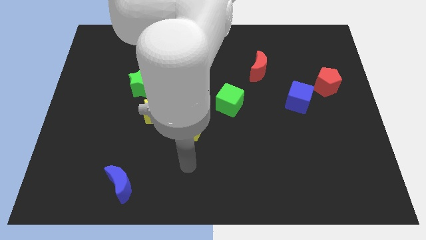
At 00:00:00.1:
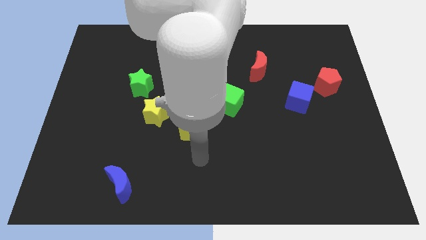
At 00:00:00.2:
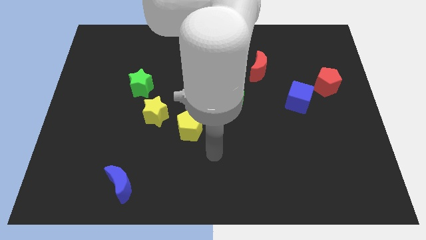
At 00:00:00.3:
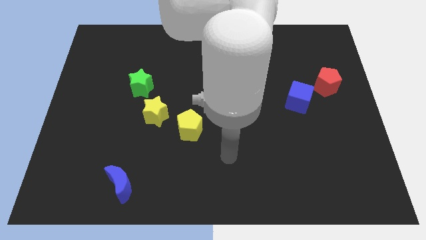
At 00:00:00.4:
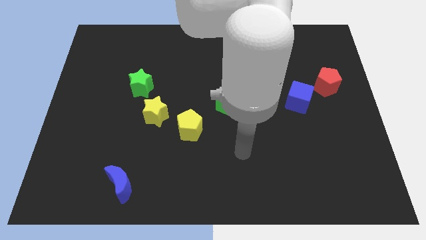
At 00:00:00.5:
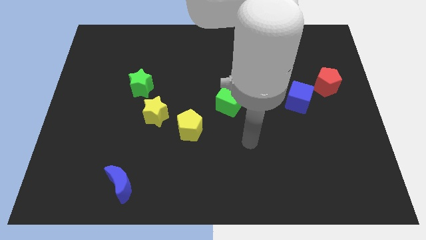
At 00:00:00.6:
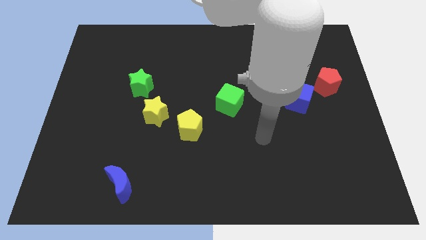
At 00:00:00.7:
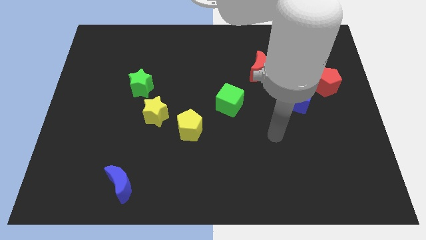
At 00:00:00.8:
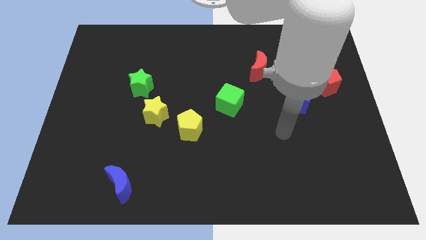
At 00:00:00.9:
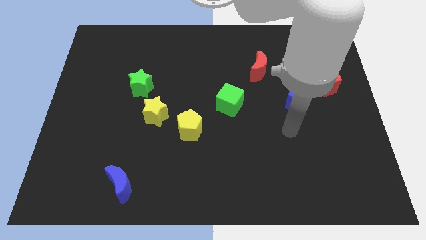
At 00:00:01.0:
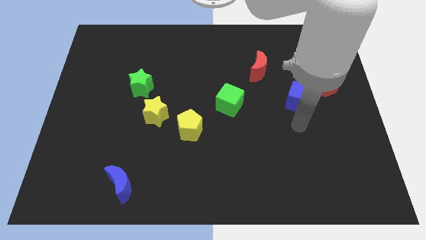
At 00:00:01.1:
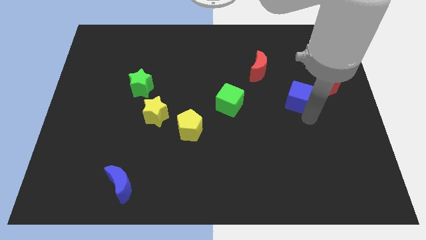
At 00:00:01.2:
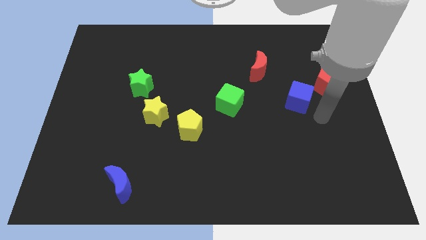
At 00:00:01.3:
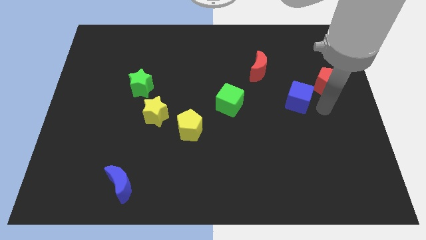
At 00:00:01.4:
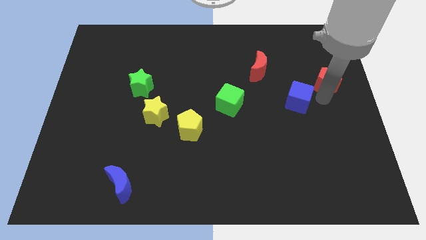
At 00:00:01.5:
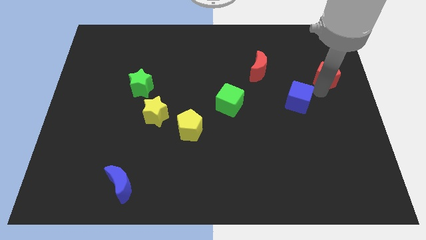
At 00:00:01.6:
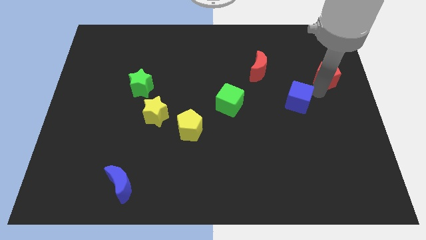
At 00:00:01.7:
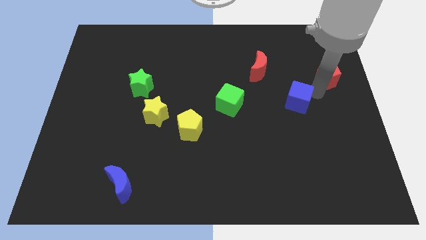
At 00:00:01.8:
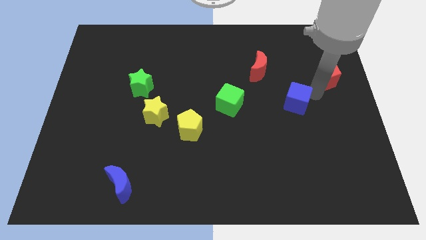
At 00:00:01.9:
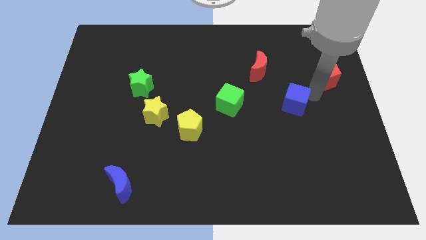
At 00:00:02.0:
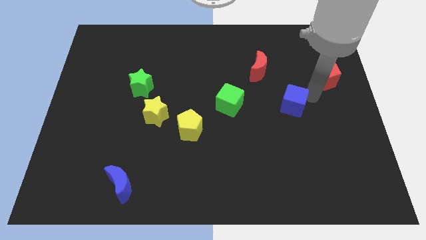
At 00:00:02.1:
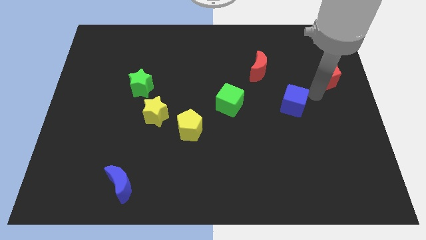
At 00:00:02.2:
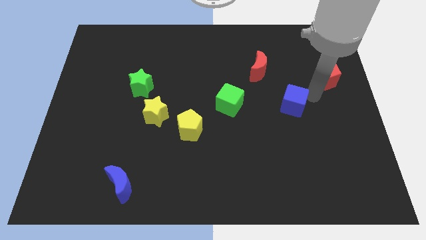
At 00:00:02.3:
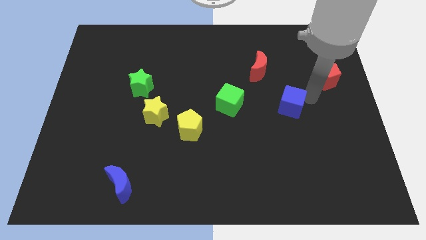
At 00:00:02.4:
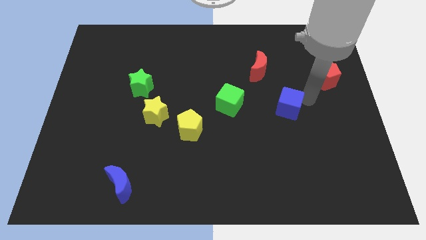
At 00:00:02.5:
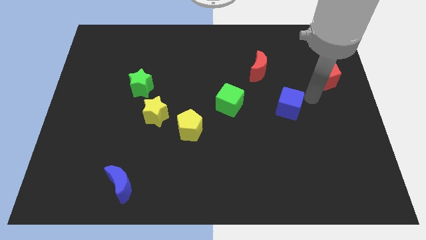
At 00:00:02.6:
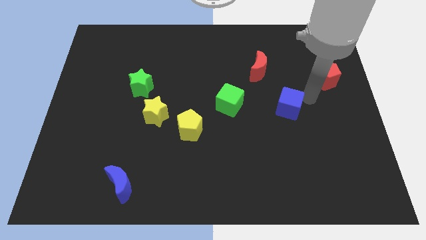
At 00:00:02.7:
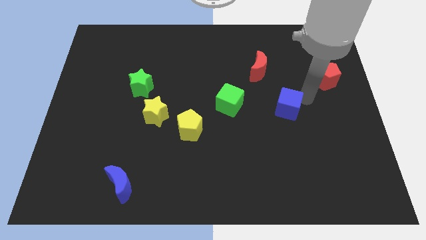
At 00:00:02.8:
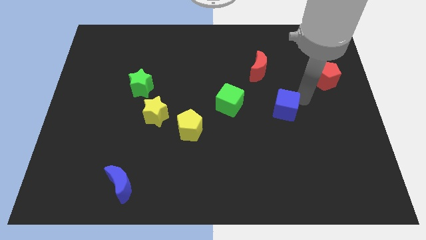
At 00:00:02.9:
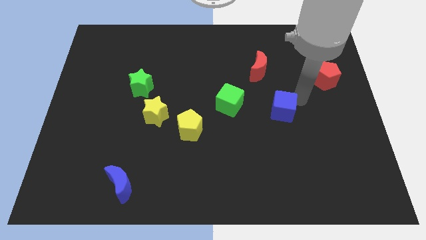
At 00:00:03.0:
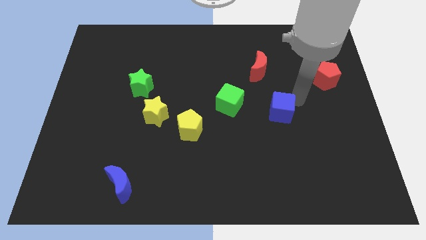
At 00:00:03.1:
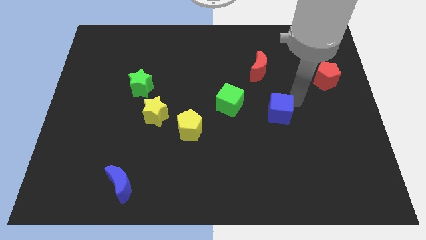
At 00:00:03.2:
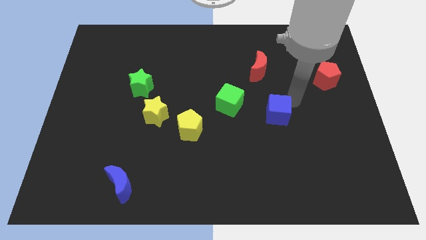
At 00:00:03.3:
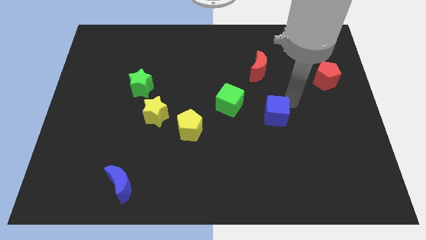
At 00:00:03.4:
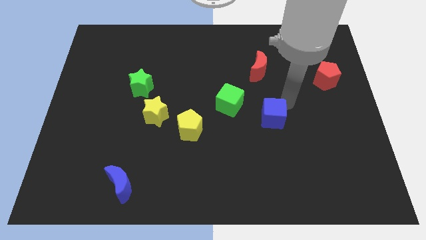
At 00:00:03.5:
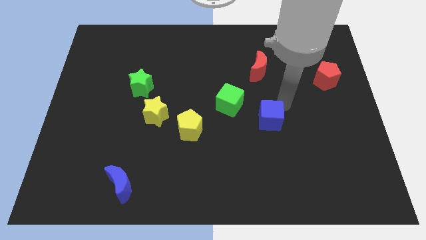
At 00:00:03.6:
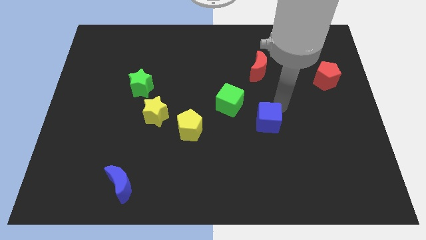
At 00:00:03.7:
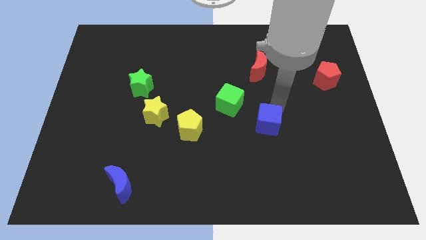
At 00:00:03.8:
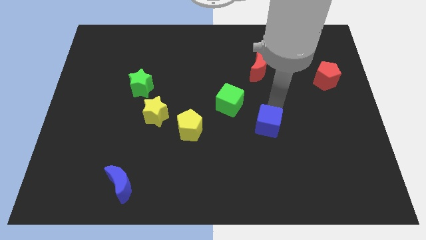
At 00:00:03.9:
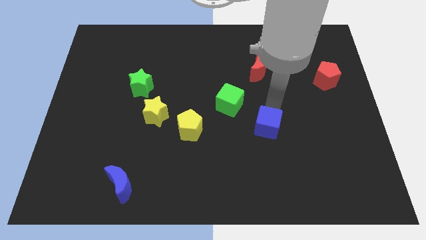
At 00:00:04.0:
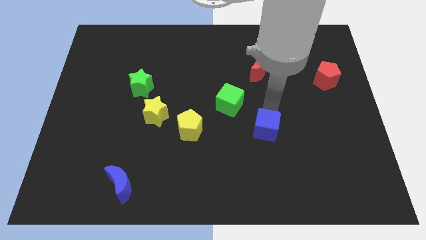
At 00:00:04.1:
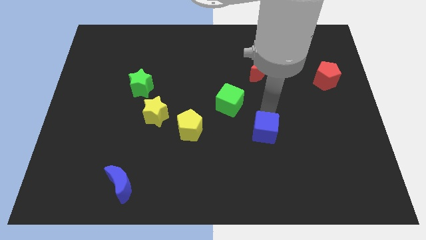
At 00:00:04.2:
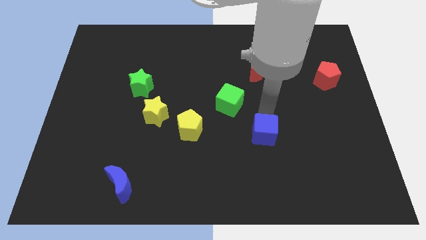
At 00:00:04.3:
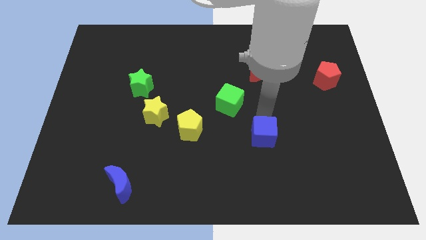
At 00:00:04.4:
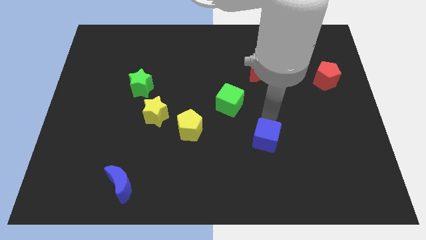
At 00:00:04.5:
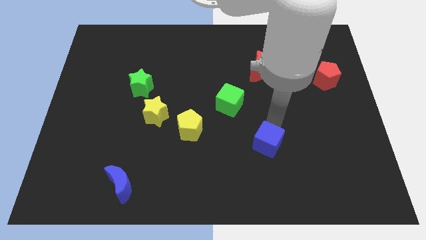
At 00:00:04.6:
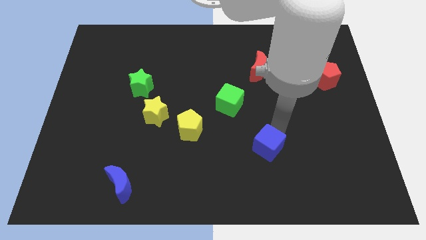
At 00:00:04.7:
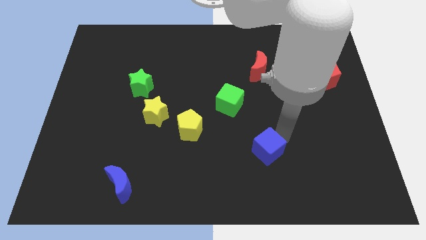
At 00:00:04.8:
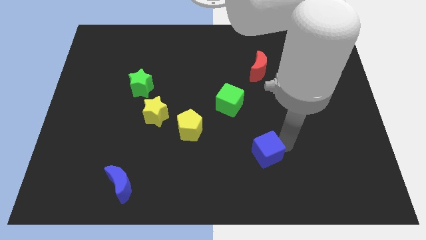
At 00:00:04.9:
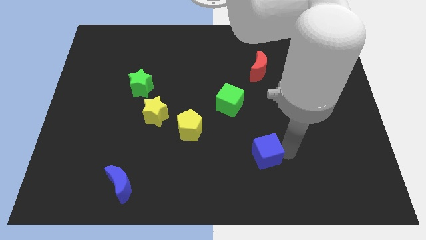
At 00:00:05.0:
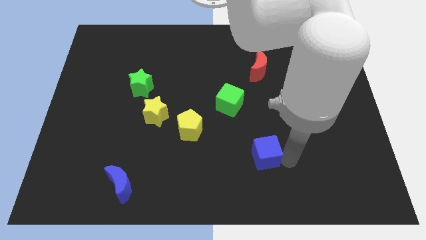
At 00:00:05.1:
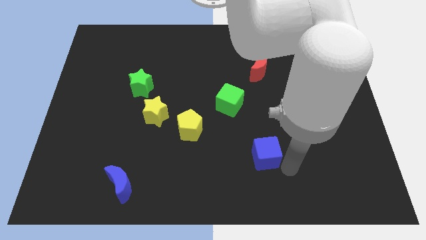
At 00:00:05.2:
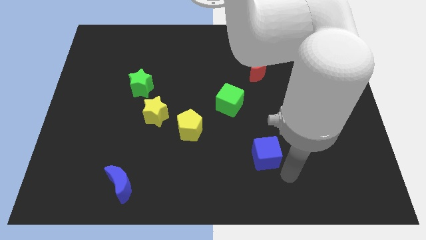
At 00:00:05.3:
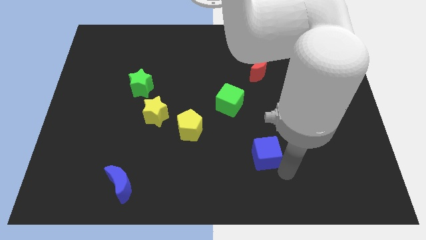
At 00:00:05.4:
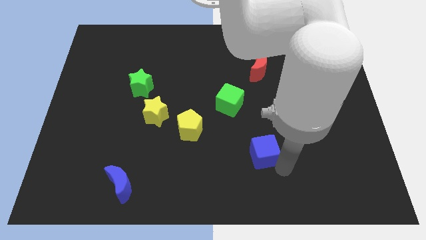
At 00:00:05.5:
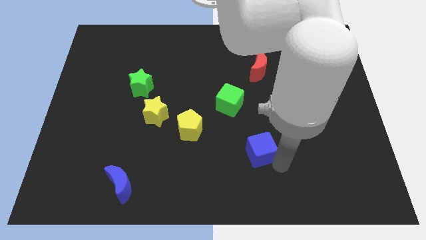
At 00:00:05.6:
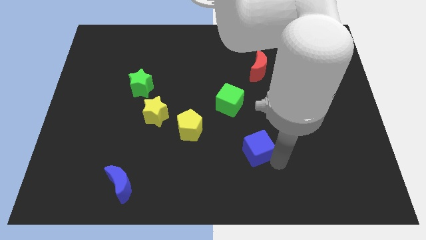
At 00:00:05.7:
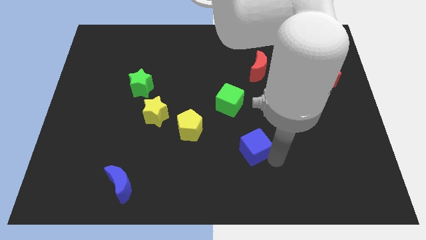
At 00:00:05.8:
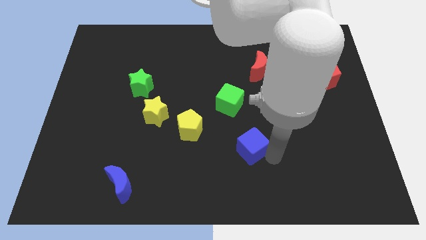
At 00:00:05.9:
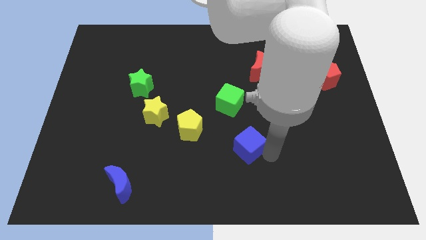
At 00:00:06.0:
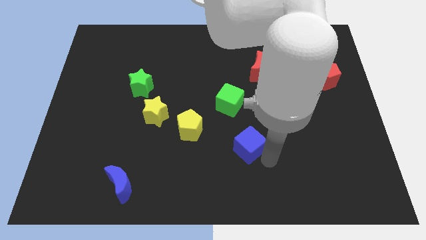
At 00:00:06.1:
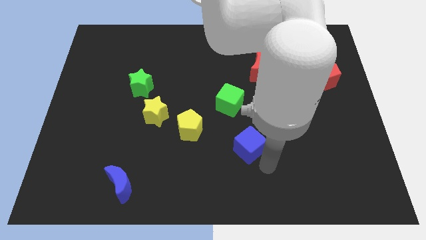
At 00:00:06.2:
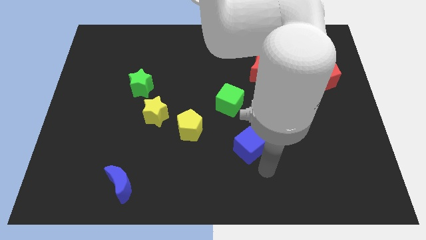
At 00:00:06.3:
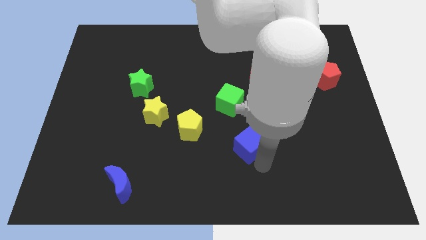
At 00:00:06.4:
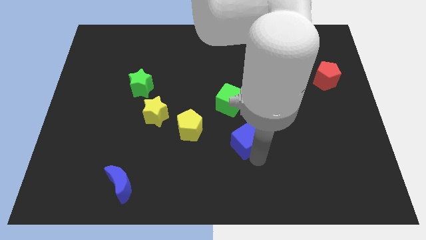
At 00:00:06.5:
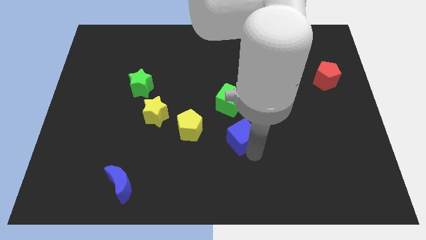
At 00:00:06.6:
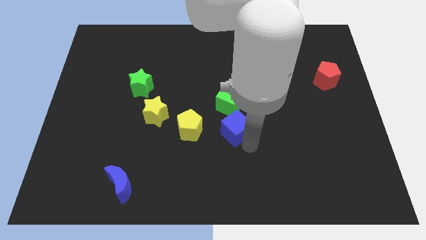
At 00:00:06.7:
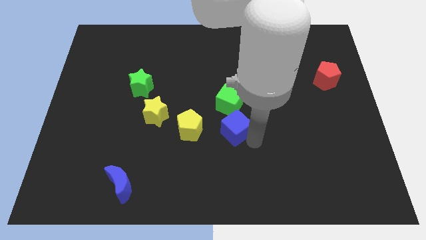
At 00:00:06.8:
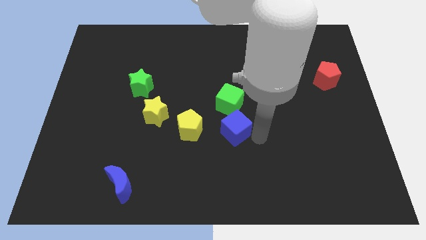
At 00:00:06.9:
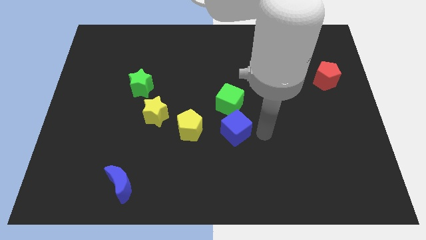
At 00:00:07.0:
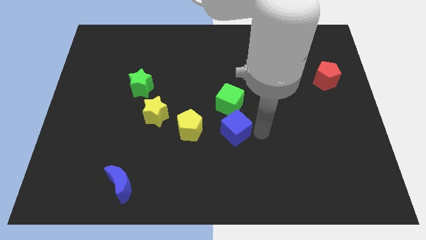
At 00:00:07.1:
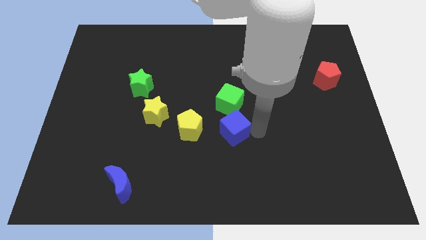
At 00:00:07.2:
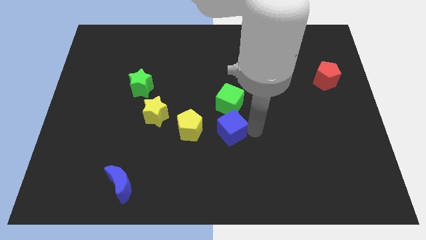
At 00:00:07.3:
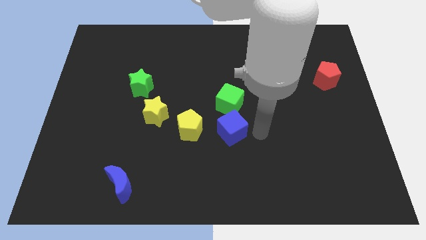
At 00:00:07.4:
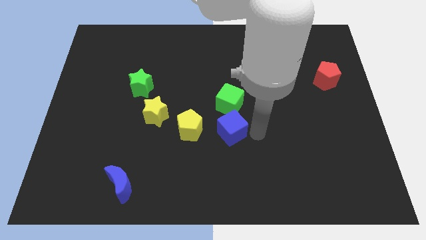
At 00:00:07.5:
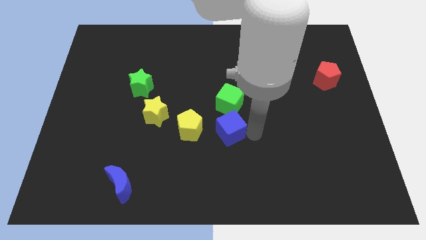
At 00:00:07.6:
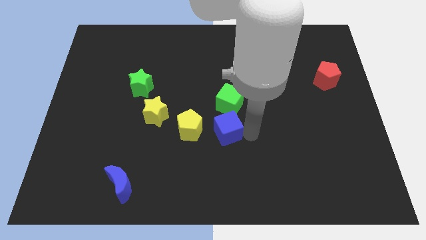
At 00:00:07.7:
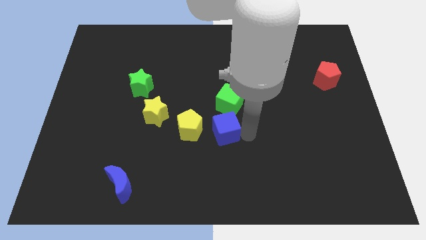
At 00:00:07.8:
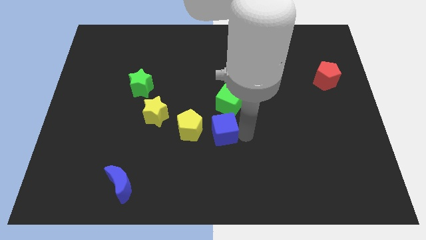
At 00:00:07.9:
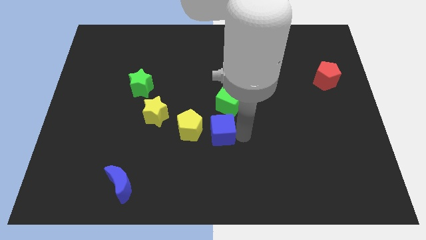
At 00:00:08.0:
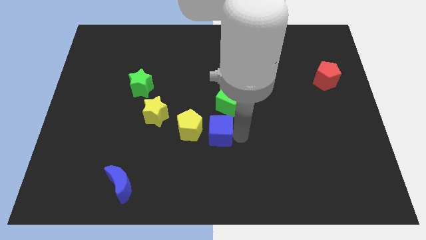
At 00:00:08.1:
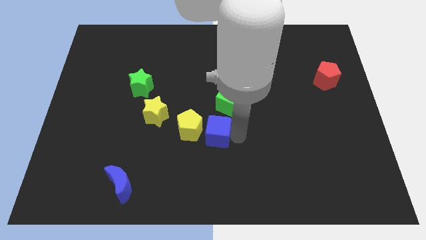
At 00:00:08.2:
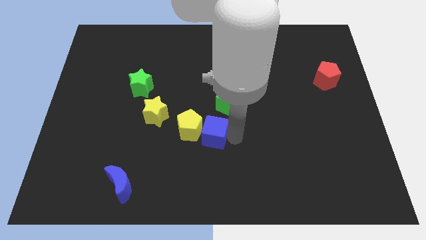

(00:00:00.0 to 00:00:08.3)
move the blue cube next to the yellow pentagon
